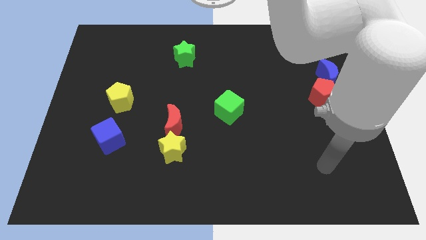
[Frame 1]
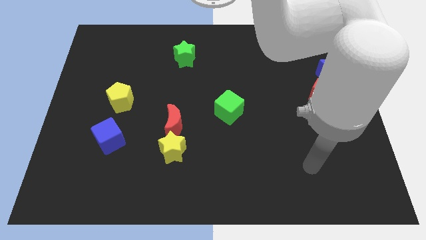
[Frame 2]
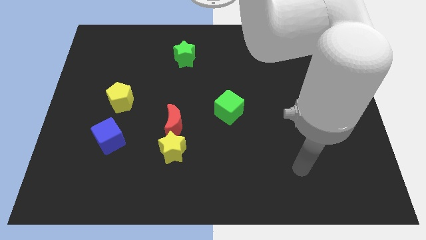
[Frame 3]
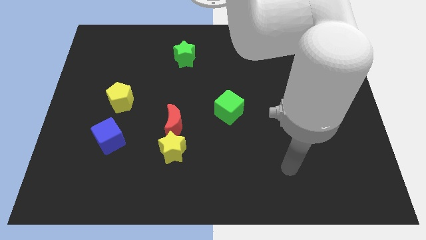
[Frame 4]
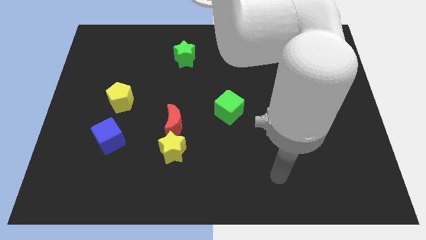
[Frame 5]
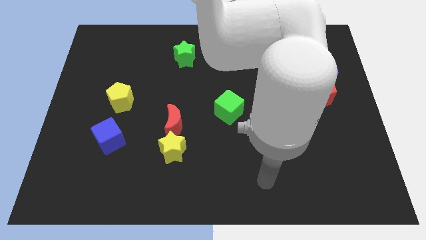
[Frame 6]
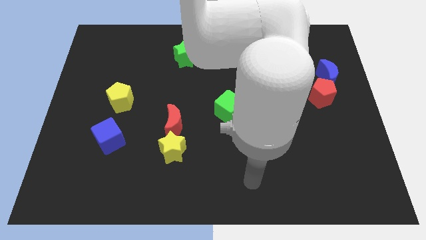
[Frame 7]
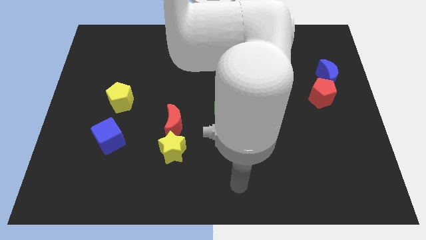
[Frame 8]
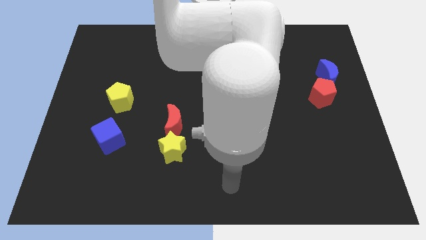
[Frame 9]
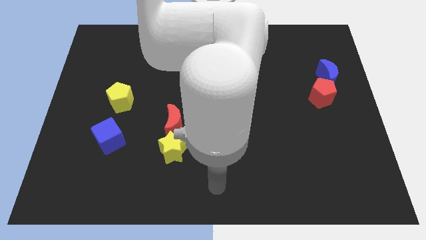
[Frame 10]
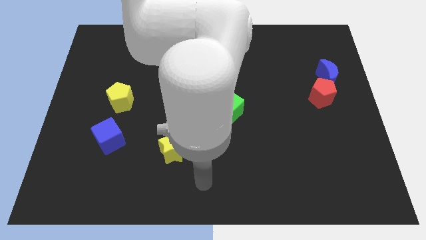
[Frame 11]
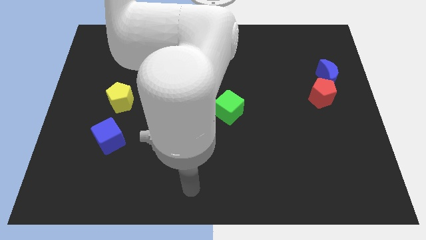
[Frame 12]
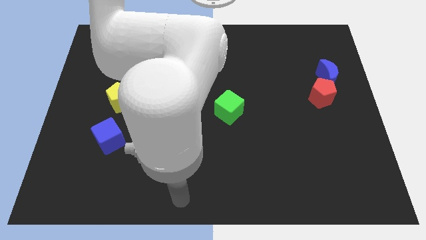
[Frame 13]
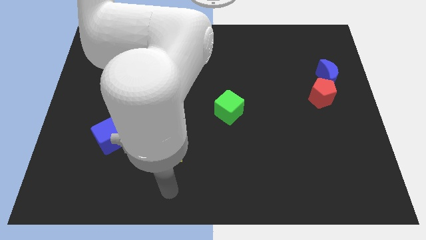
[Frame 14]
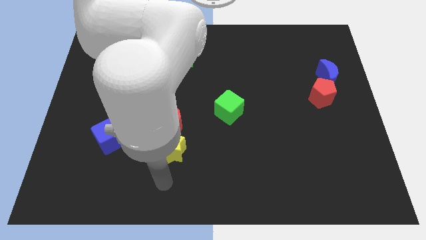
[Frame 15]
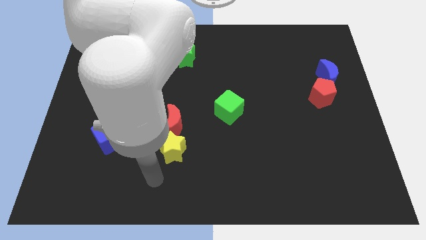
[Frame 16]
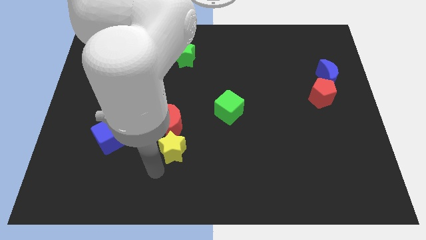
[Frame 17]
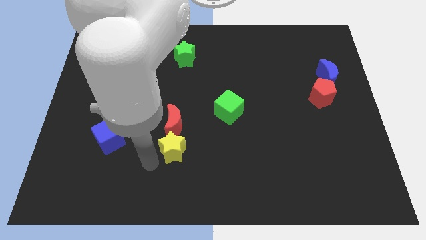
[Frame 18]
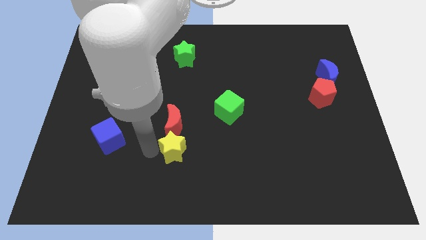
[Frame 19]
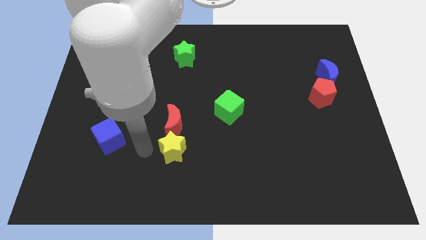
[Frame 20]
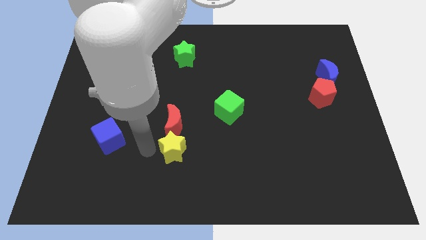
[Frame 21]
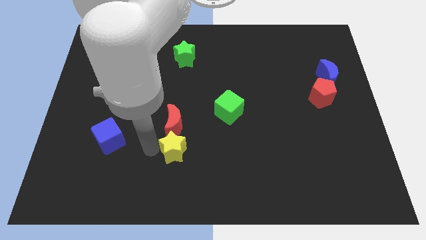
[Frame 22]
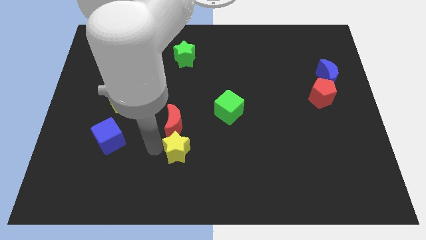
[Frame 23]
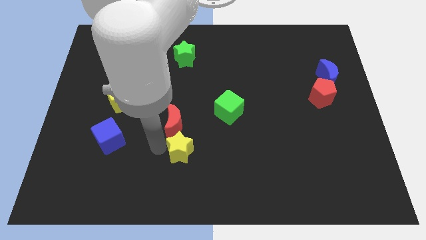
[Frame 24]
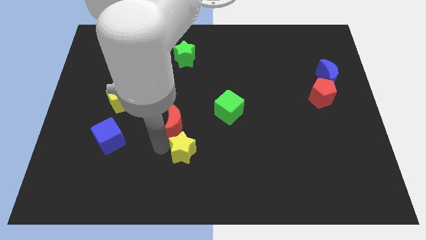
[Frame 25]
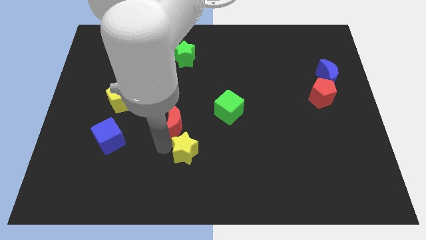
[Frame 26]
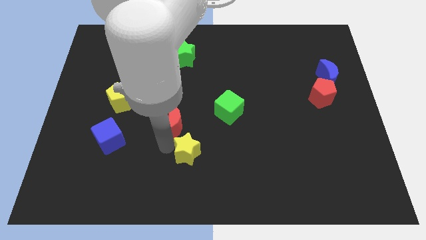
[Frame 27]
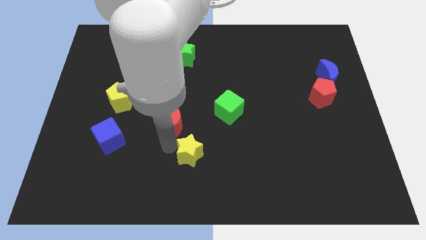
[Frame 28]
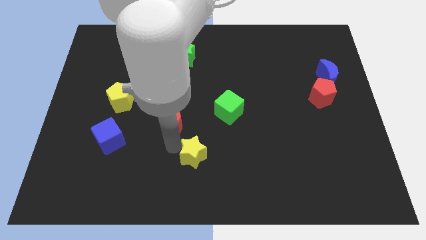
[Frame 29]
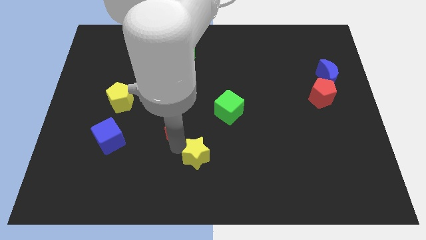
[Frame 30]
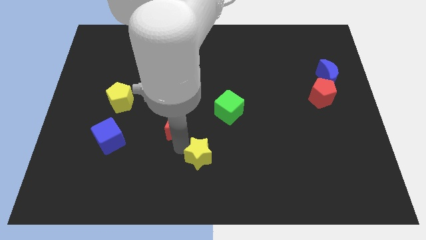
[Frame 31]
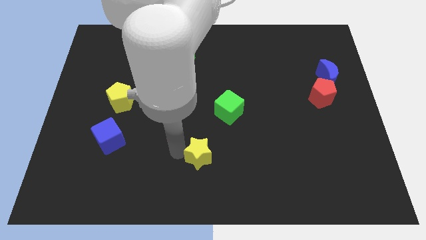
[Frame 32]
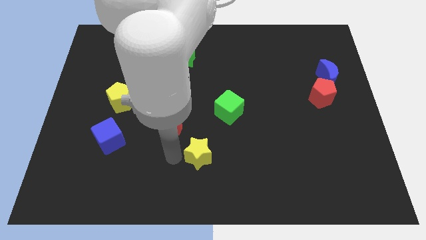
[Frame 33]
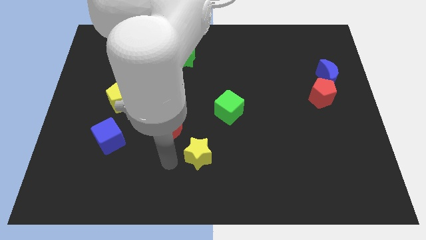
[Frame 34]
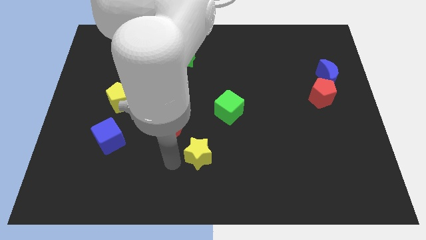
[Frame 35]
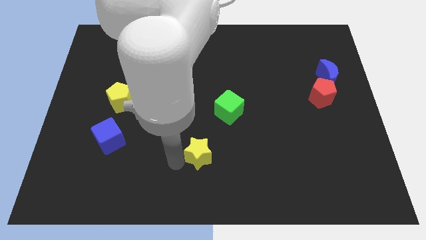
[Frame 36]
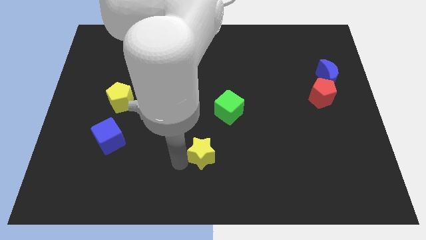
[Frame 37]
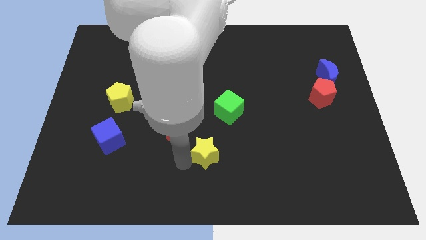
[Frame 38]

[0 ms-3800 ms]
move the yellow star right a little

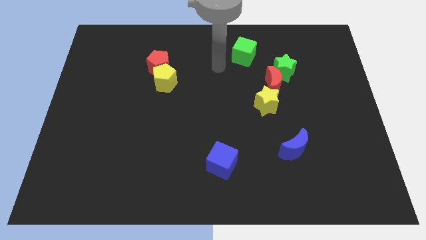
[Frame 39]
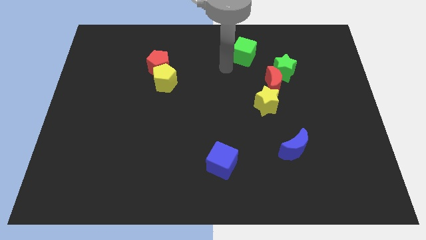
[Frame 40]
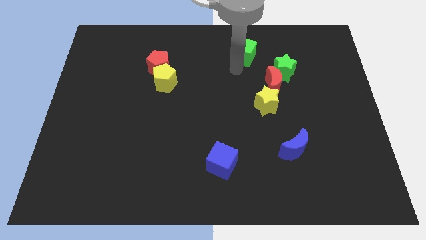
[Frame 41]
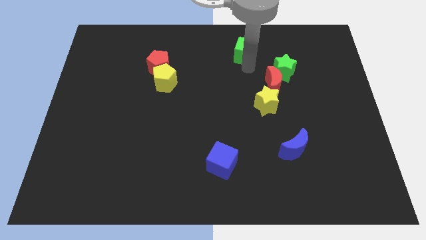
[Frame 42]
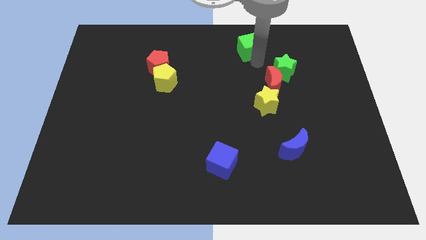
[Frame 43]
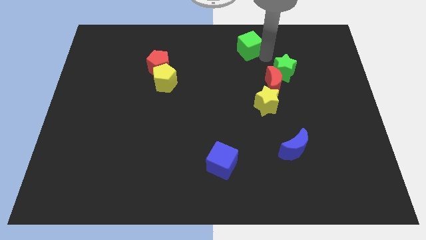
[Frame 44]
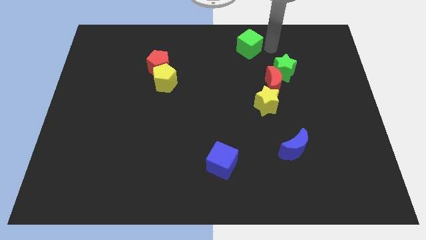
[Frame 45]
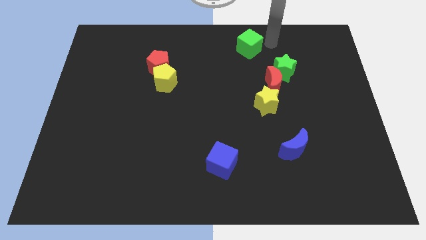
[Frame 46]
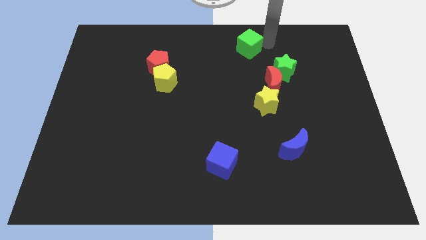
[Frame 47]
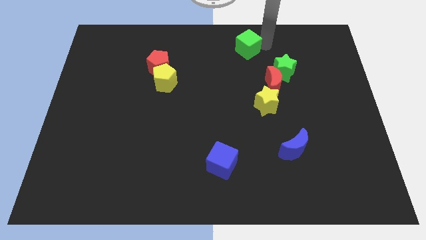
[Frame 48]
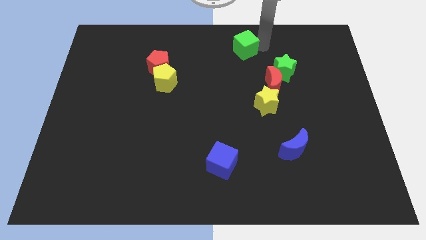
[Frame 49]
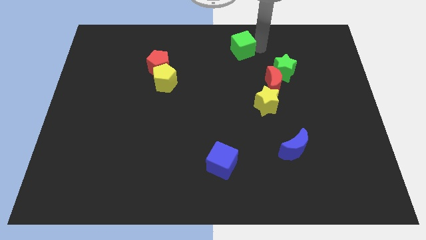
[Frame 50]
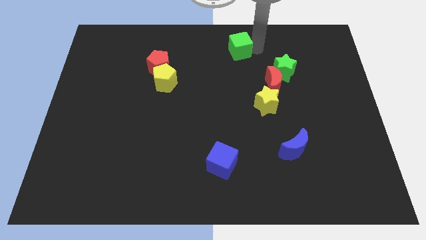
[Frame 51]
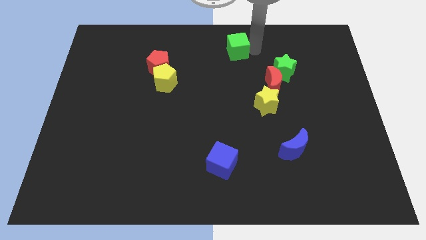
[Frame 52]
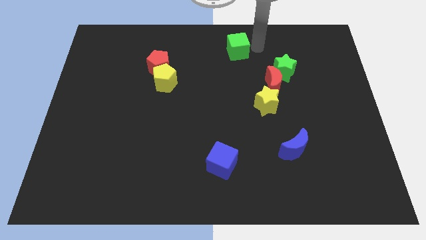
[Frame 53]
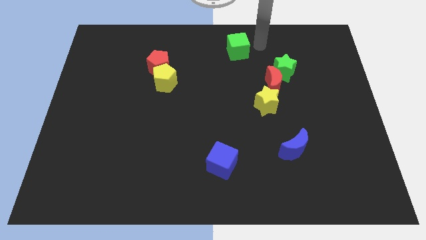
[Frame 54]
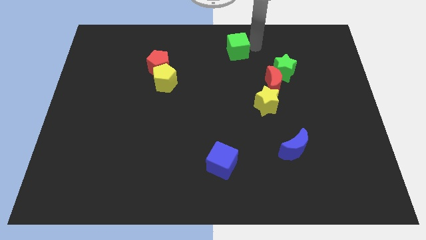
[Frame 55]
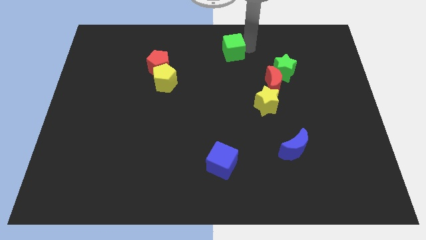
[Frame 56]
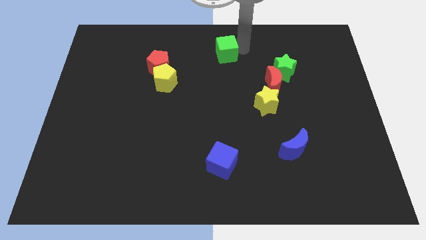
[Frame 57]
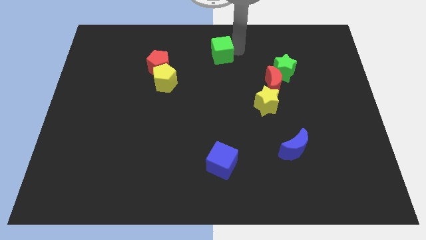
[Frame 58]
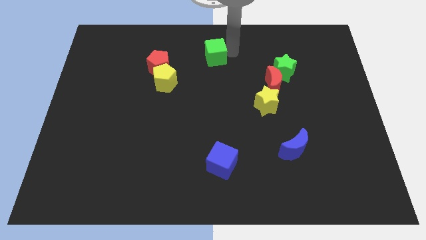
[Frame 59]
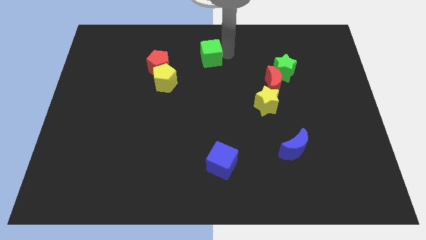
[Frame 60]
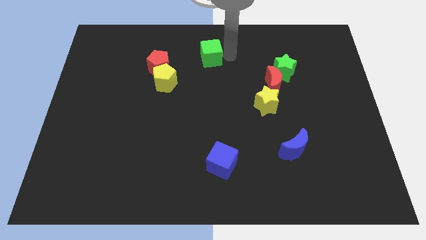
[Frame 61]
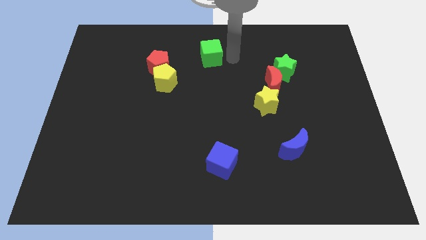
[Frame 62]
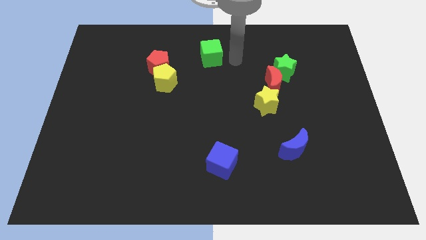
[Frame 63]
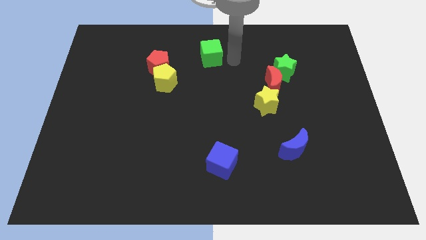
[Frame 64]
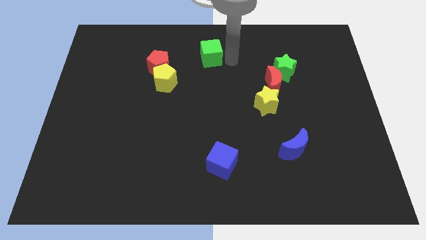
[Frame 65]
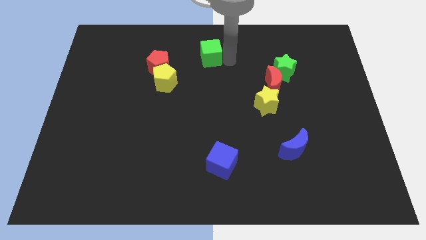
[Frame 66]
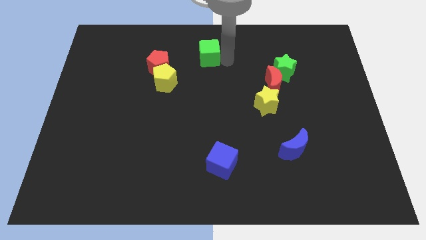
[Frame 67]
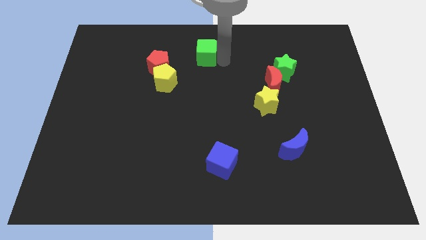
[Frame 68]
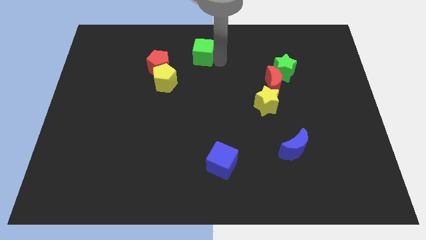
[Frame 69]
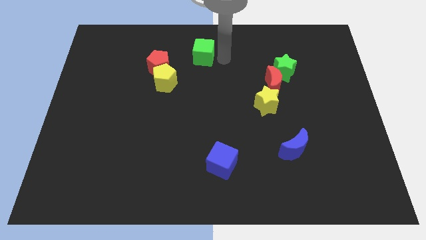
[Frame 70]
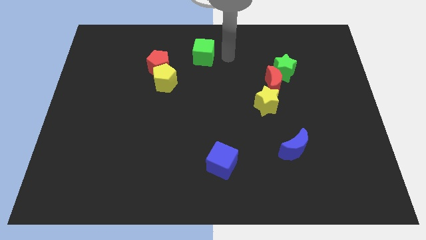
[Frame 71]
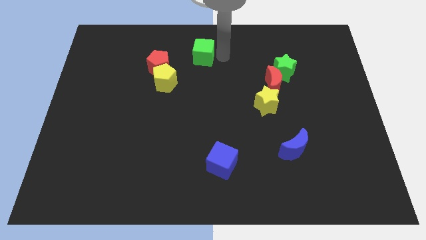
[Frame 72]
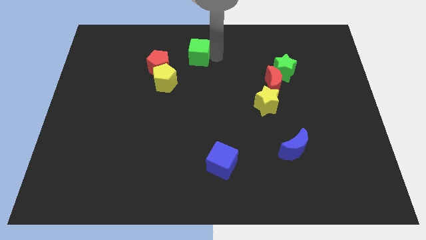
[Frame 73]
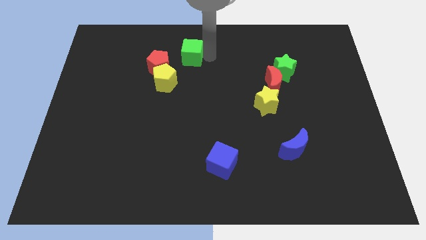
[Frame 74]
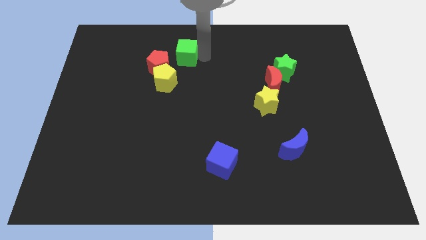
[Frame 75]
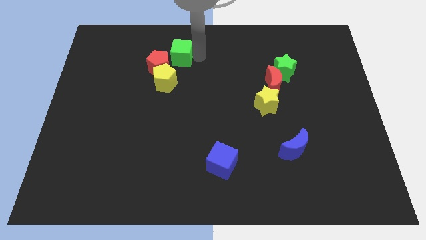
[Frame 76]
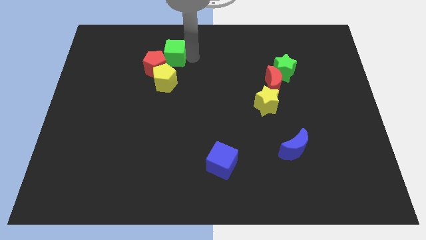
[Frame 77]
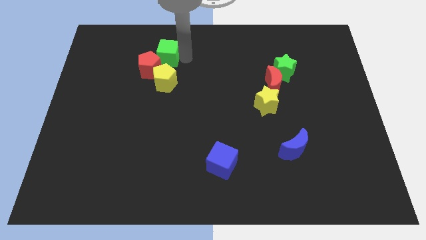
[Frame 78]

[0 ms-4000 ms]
slide the green cube left

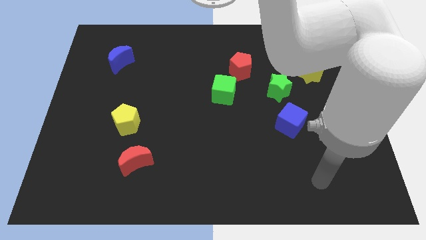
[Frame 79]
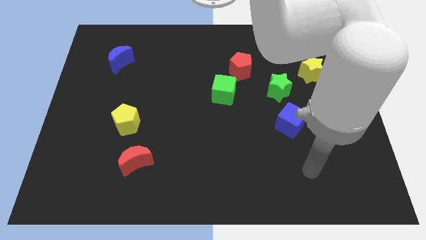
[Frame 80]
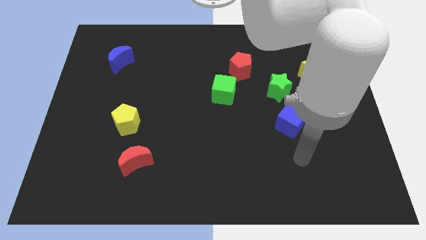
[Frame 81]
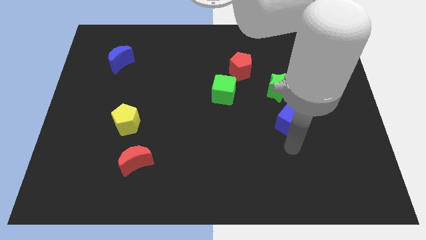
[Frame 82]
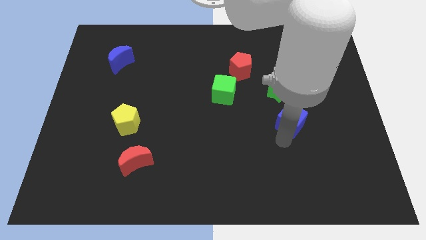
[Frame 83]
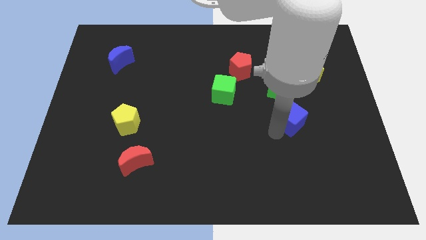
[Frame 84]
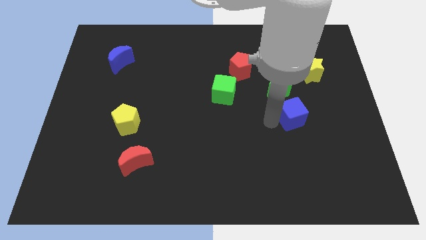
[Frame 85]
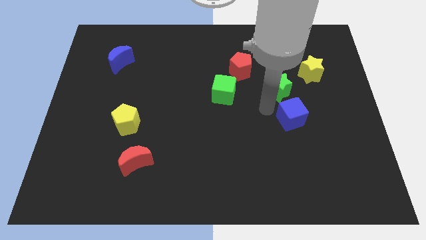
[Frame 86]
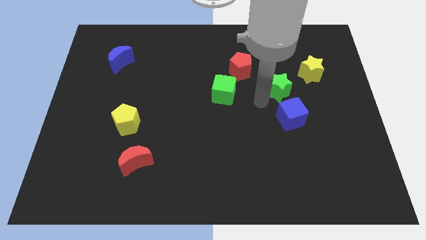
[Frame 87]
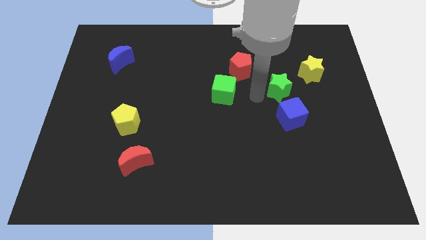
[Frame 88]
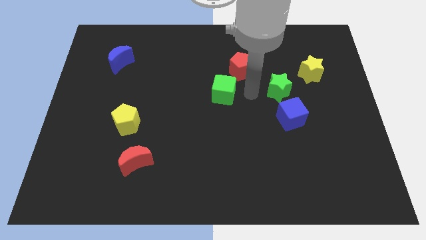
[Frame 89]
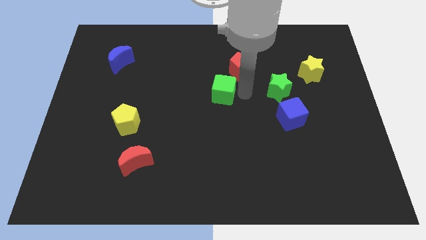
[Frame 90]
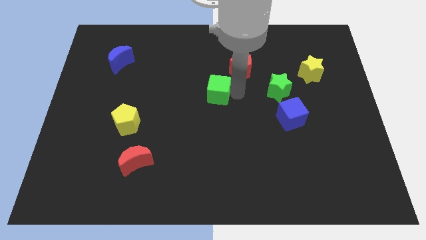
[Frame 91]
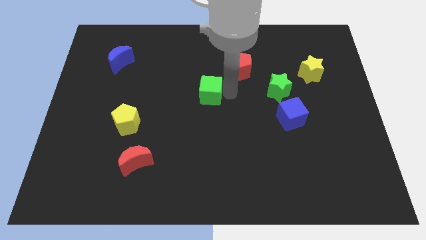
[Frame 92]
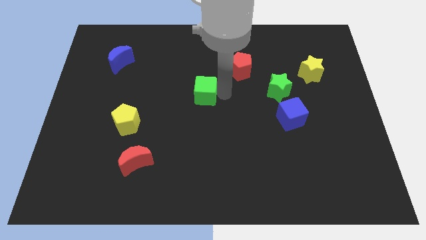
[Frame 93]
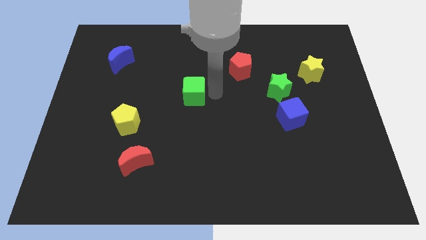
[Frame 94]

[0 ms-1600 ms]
push the green cube a bit to the left
